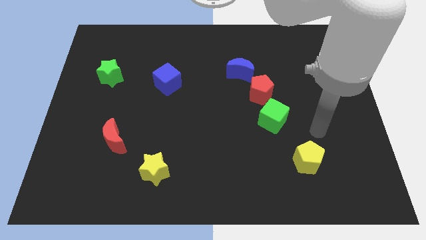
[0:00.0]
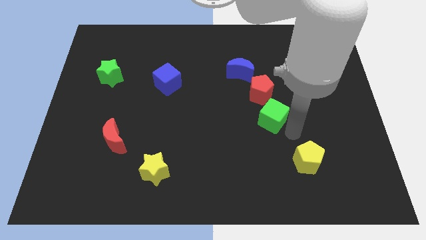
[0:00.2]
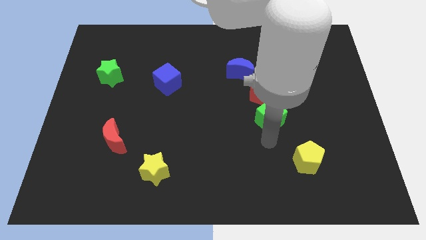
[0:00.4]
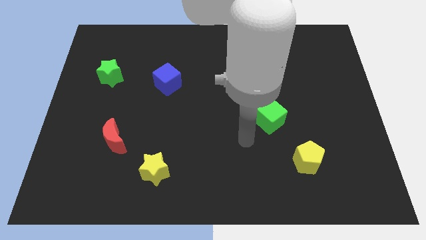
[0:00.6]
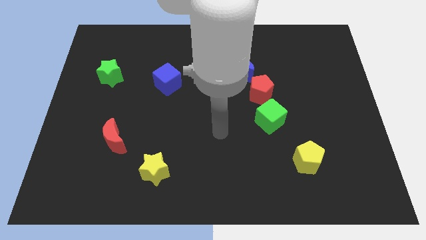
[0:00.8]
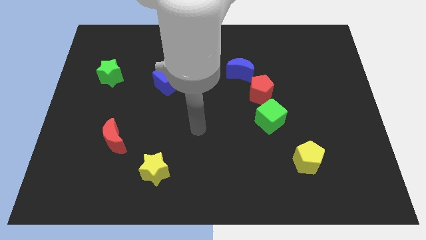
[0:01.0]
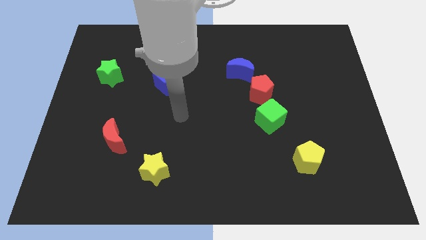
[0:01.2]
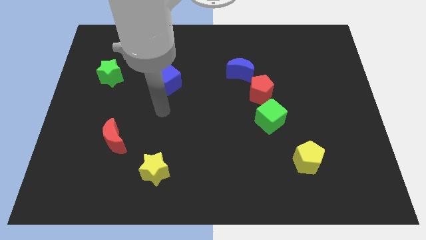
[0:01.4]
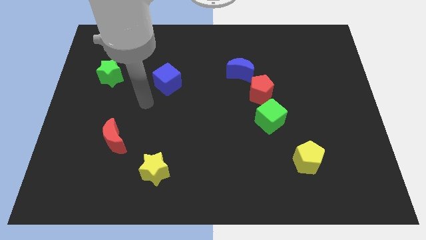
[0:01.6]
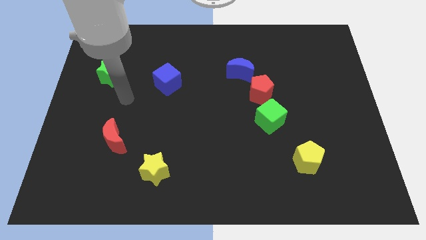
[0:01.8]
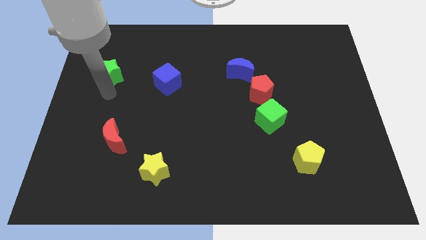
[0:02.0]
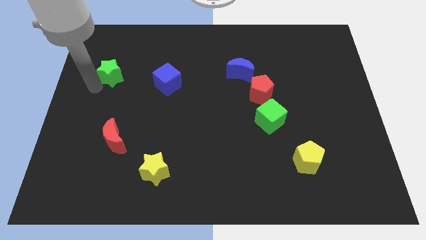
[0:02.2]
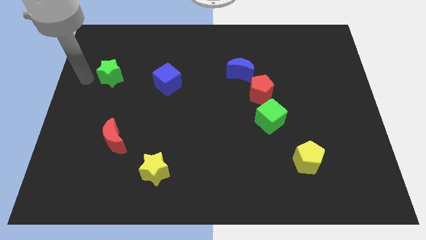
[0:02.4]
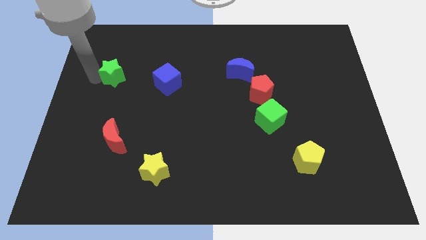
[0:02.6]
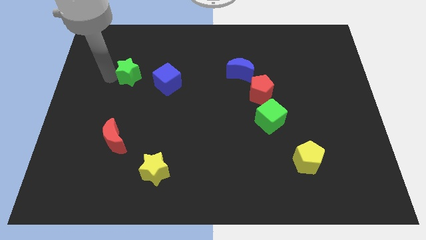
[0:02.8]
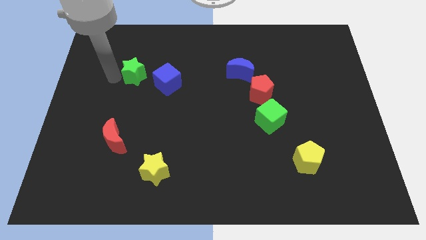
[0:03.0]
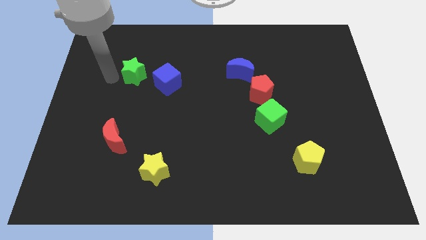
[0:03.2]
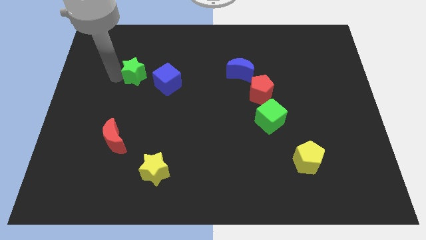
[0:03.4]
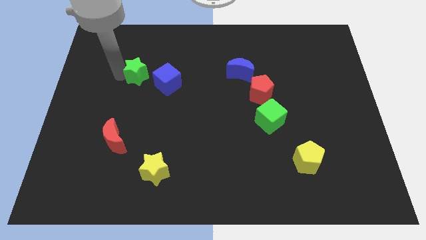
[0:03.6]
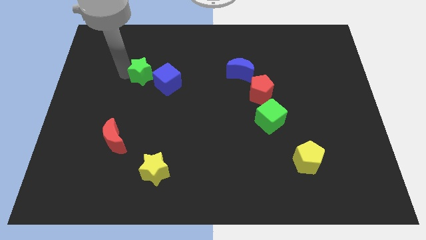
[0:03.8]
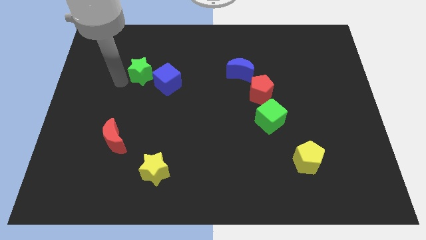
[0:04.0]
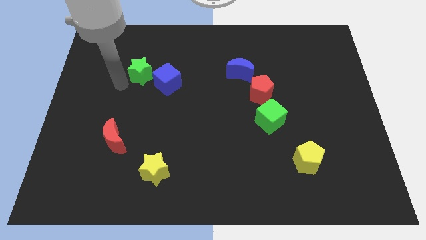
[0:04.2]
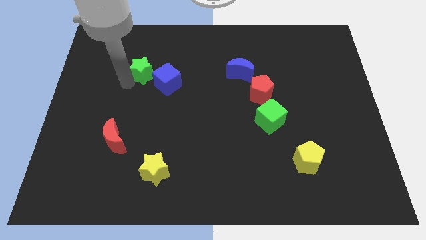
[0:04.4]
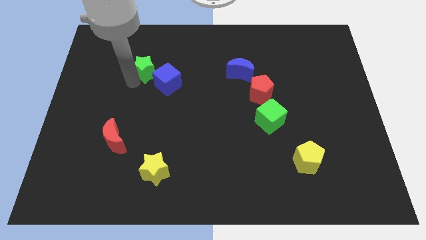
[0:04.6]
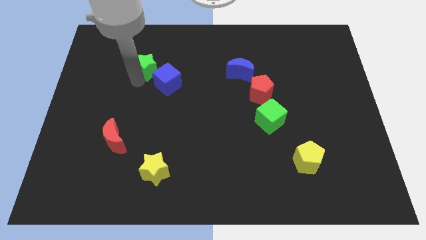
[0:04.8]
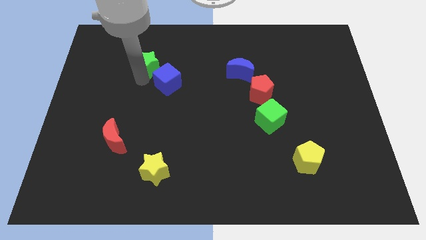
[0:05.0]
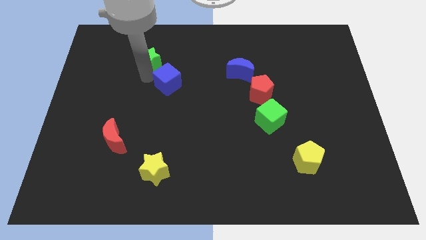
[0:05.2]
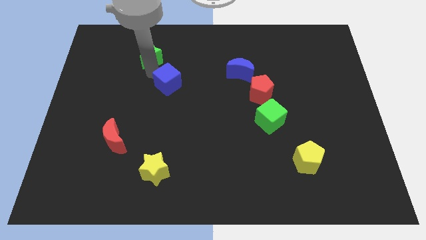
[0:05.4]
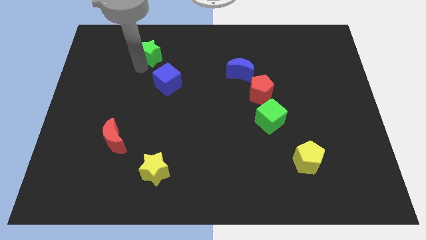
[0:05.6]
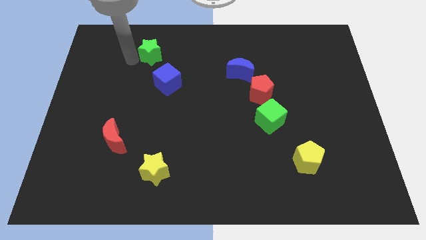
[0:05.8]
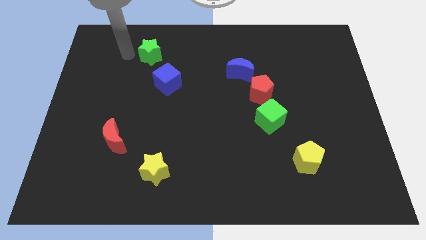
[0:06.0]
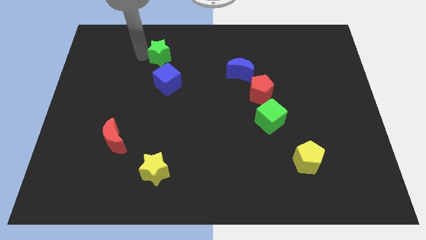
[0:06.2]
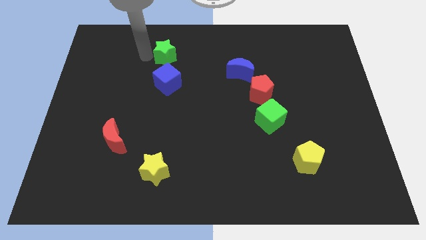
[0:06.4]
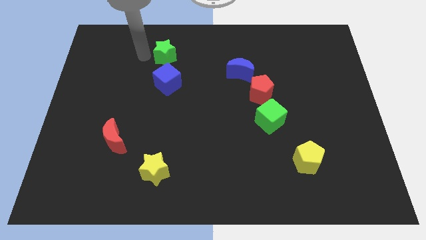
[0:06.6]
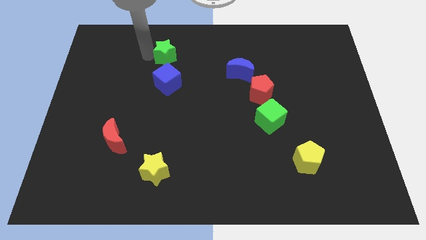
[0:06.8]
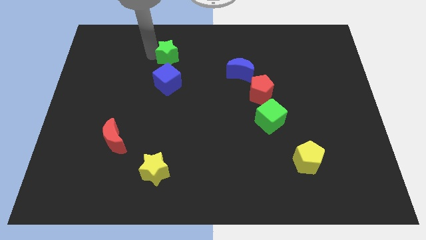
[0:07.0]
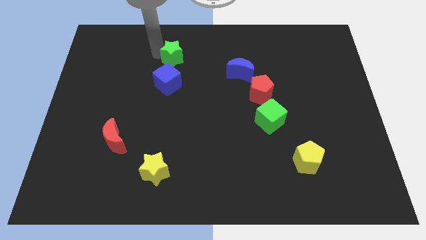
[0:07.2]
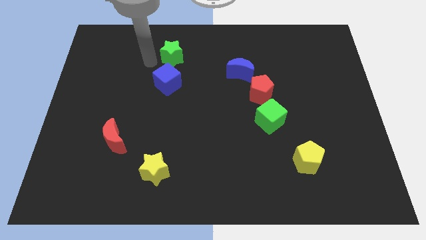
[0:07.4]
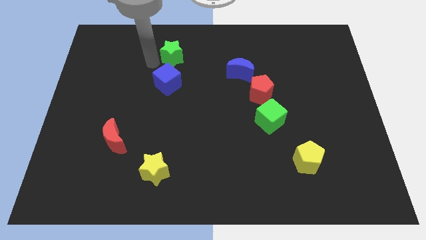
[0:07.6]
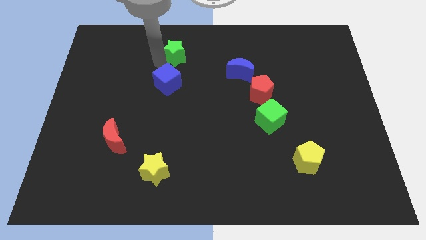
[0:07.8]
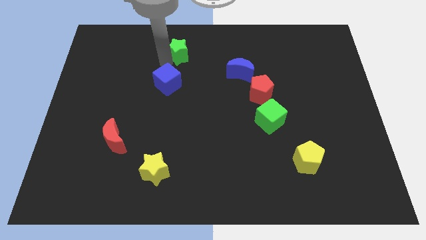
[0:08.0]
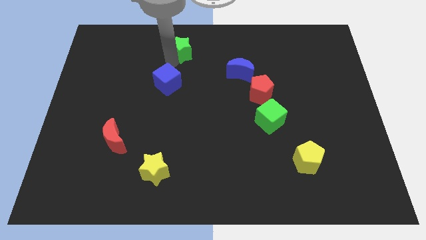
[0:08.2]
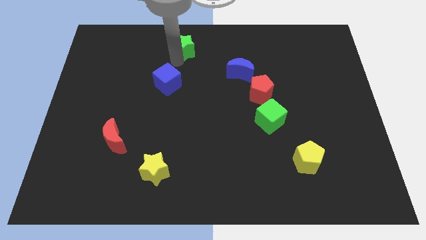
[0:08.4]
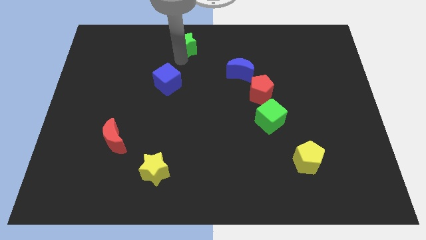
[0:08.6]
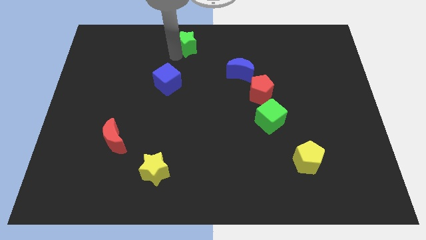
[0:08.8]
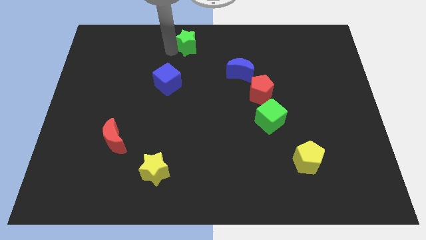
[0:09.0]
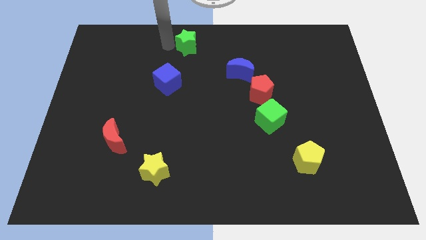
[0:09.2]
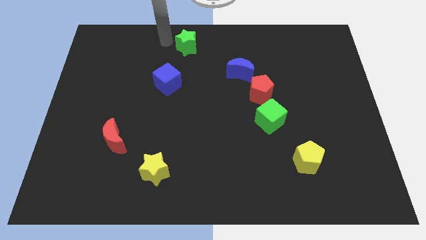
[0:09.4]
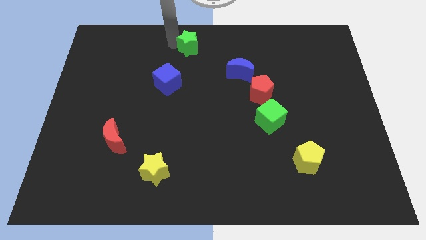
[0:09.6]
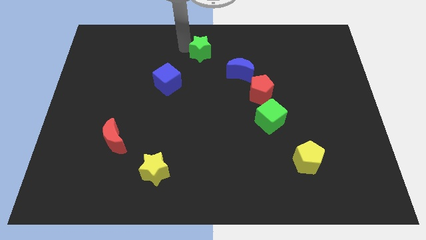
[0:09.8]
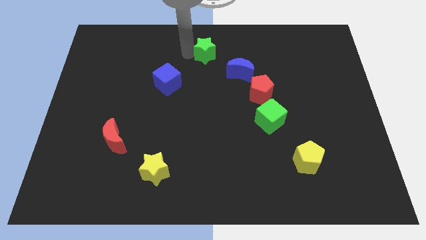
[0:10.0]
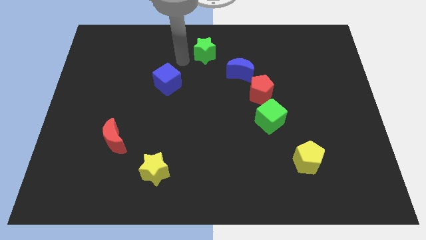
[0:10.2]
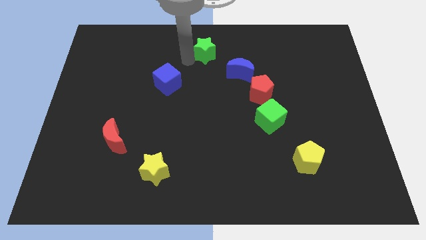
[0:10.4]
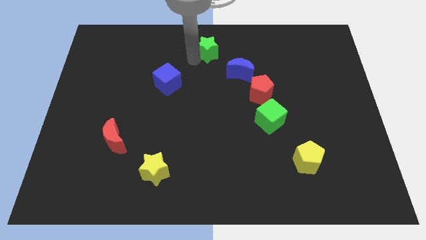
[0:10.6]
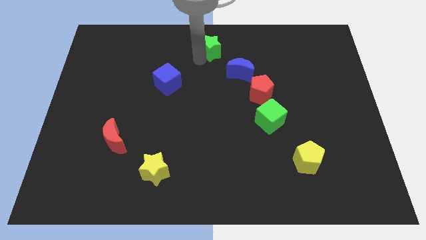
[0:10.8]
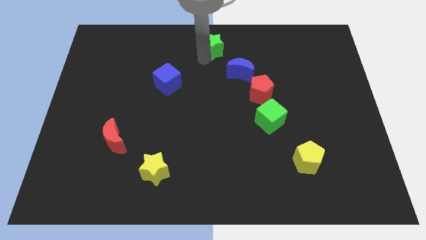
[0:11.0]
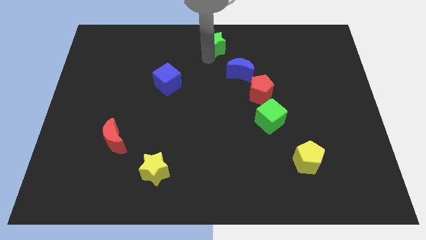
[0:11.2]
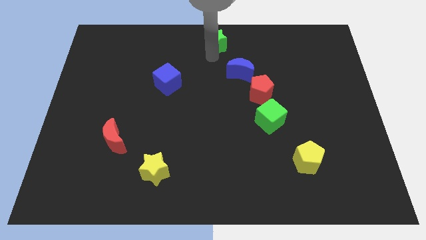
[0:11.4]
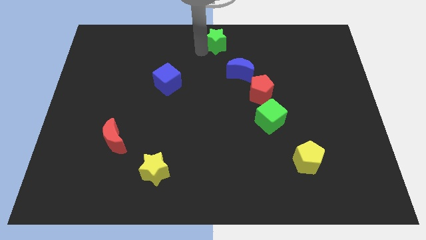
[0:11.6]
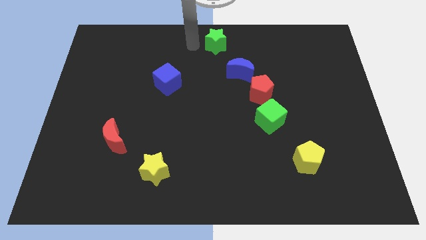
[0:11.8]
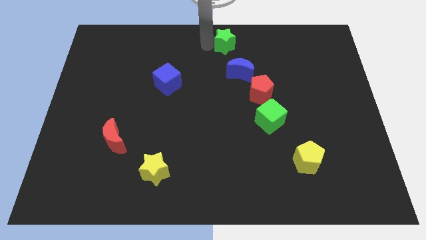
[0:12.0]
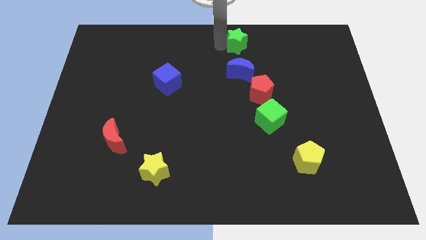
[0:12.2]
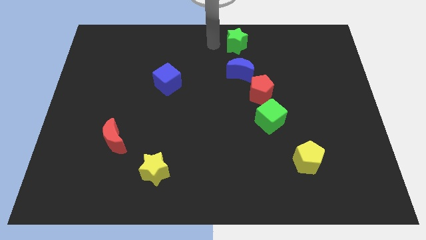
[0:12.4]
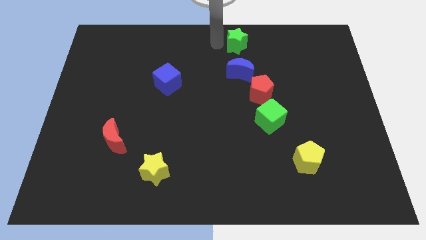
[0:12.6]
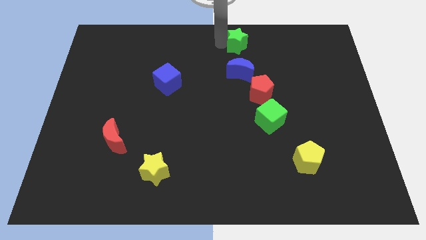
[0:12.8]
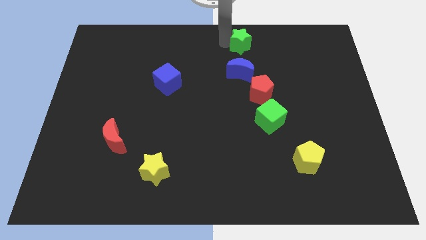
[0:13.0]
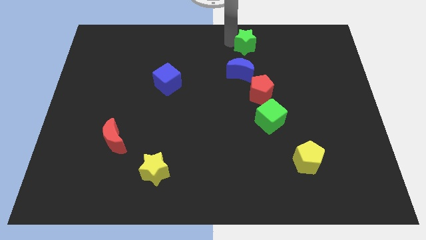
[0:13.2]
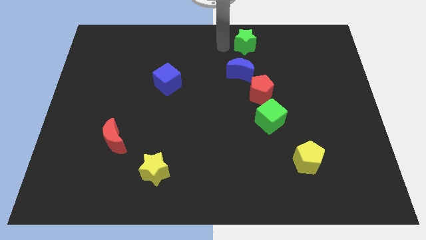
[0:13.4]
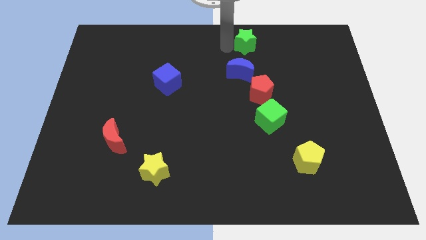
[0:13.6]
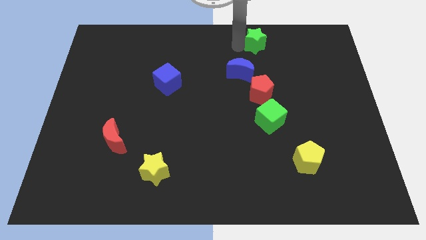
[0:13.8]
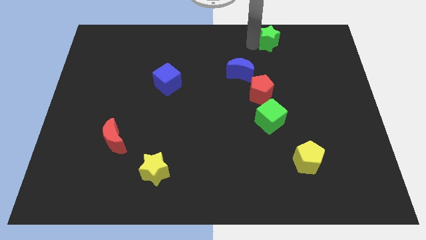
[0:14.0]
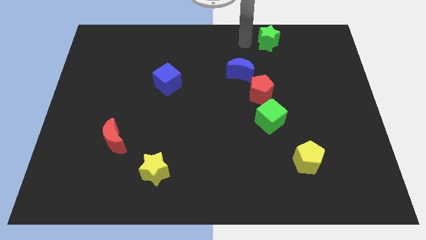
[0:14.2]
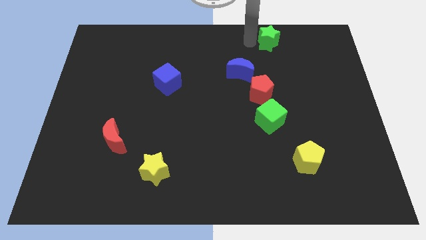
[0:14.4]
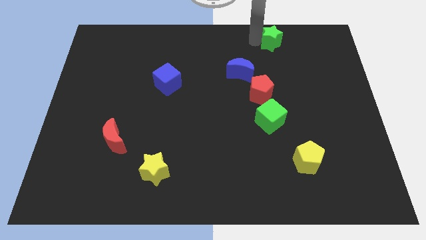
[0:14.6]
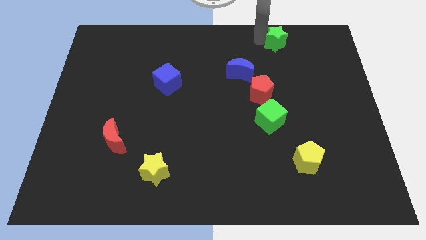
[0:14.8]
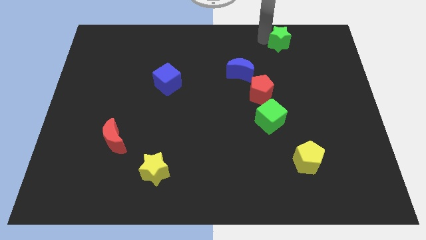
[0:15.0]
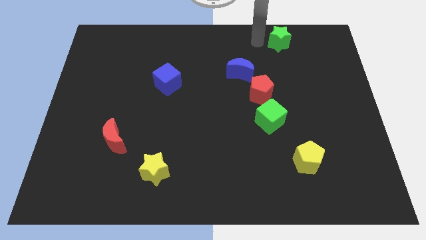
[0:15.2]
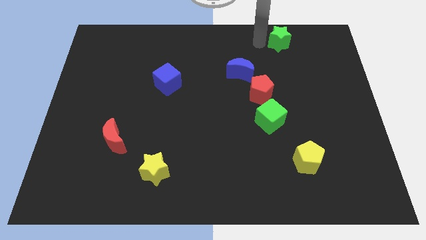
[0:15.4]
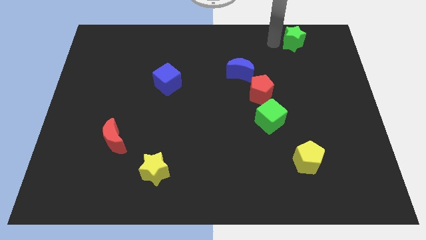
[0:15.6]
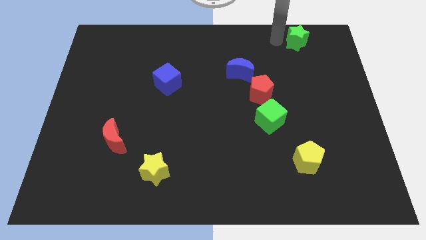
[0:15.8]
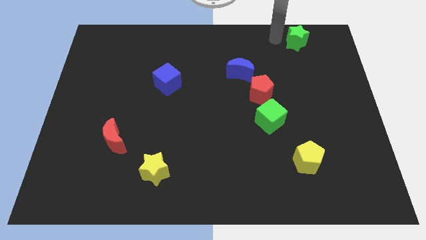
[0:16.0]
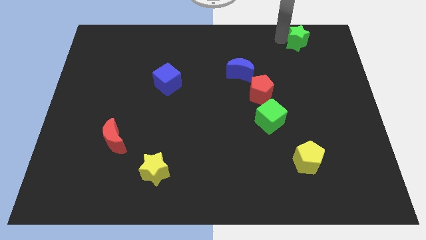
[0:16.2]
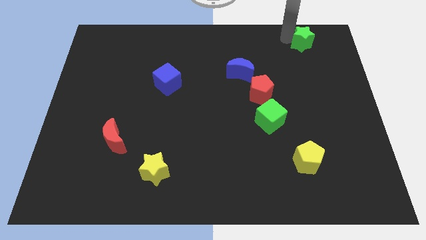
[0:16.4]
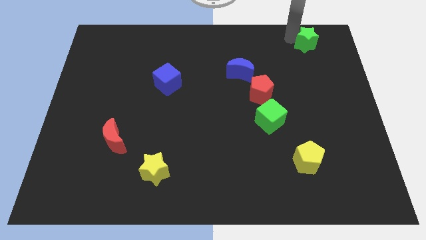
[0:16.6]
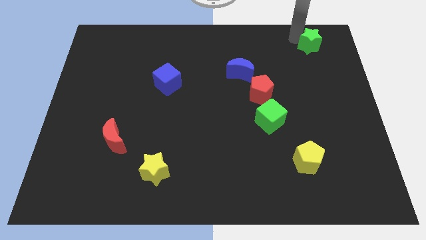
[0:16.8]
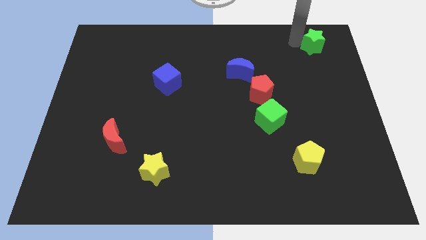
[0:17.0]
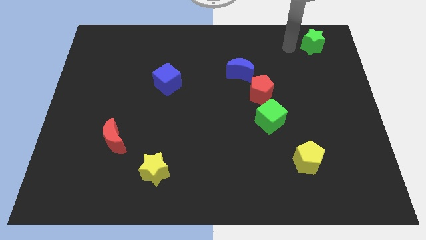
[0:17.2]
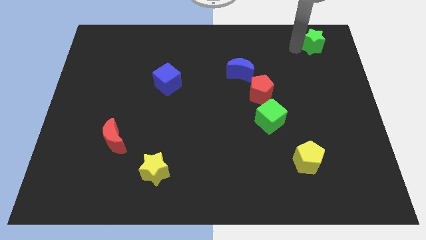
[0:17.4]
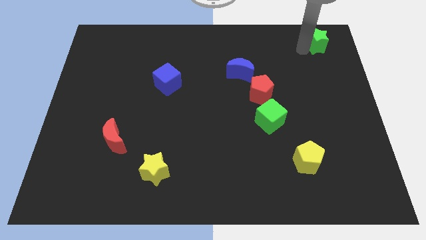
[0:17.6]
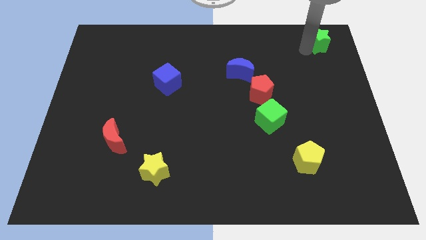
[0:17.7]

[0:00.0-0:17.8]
put the green star to the upper right corner
